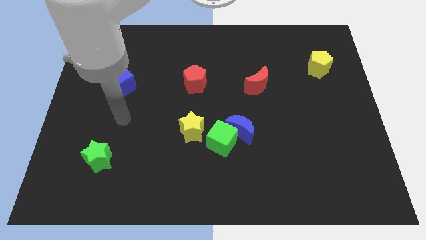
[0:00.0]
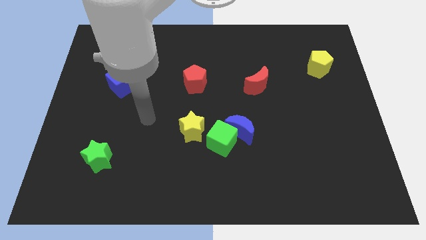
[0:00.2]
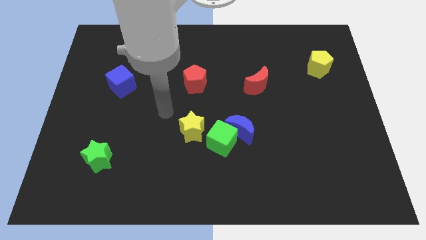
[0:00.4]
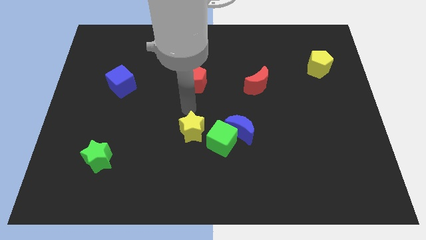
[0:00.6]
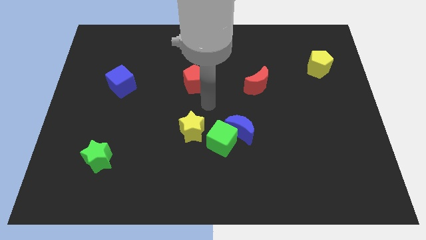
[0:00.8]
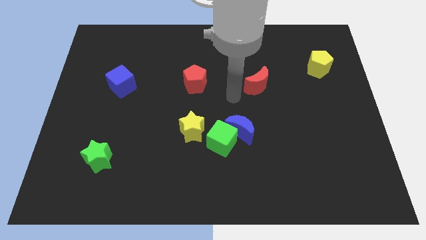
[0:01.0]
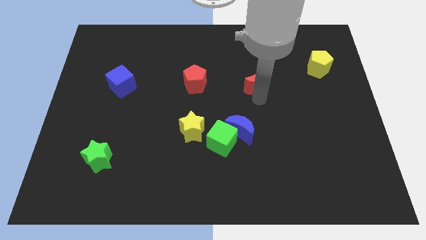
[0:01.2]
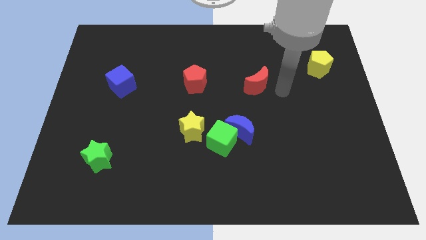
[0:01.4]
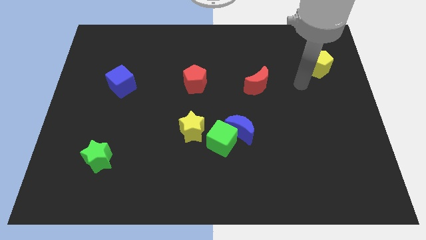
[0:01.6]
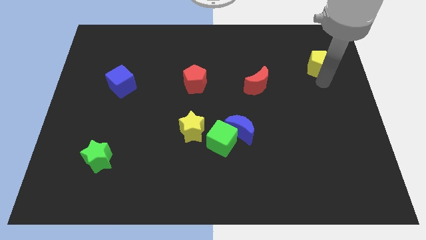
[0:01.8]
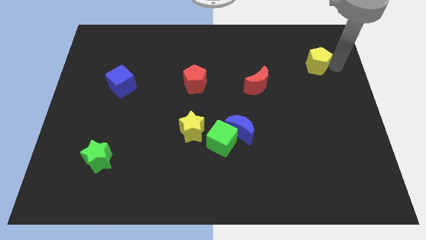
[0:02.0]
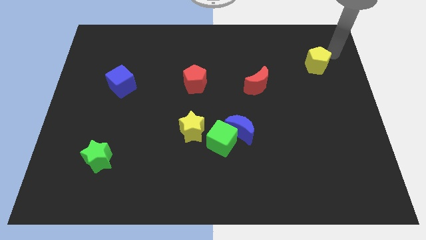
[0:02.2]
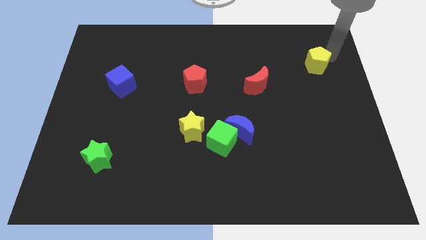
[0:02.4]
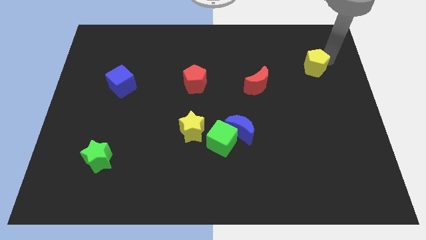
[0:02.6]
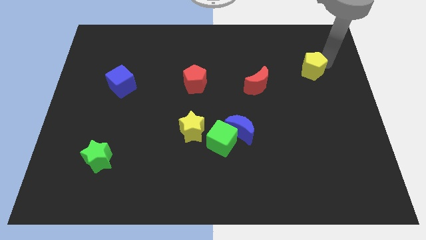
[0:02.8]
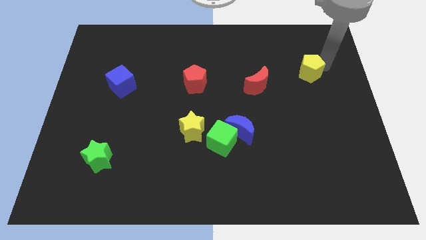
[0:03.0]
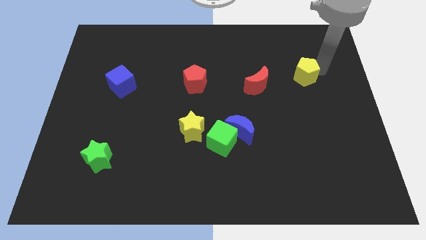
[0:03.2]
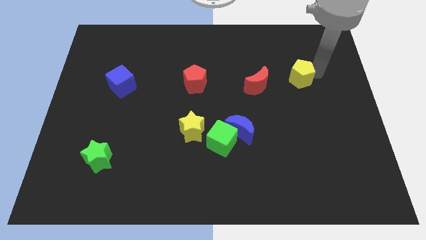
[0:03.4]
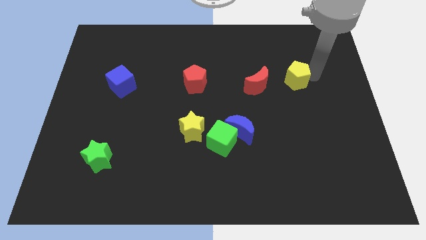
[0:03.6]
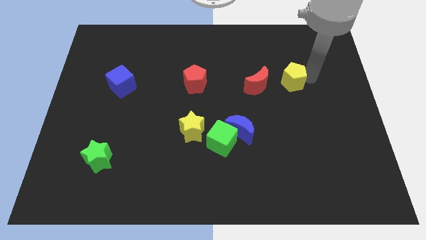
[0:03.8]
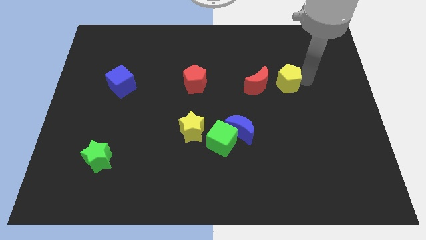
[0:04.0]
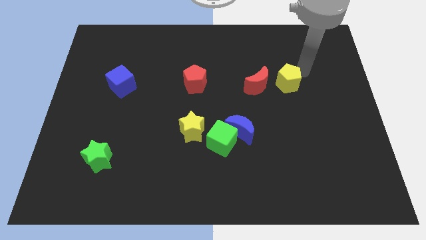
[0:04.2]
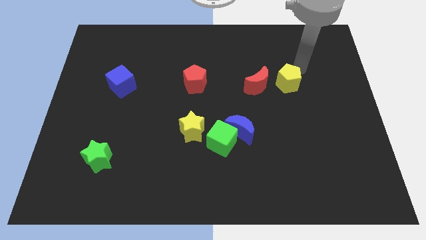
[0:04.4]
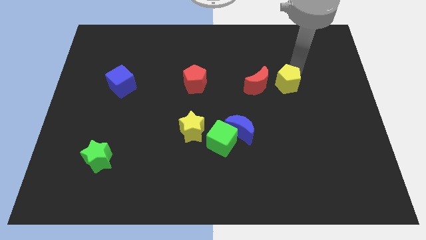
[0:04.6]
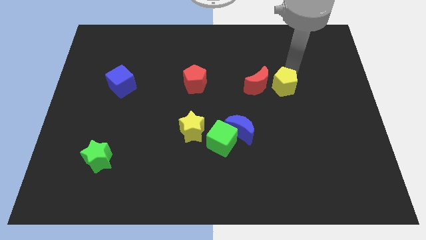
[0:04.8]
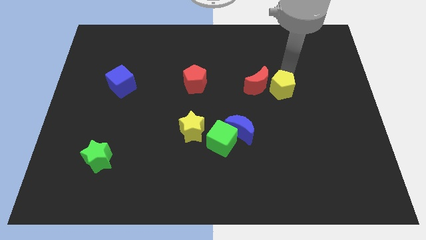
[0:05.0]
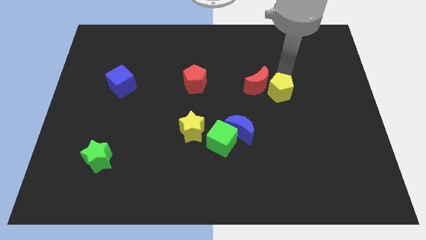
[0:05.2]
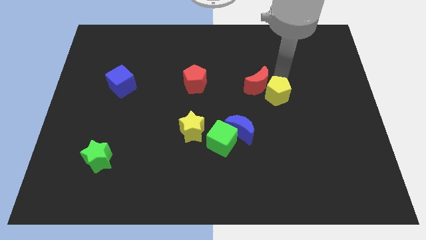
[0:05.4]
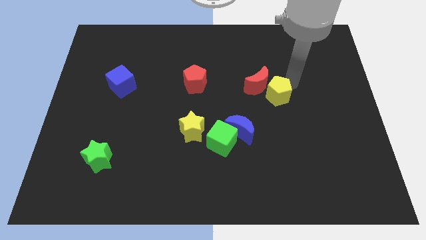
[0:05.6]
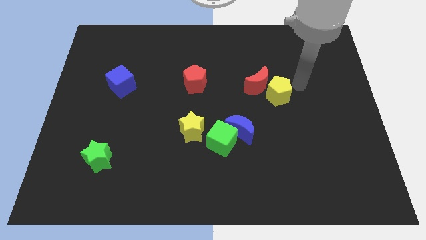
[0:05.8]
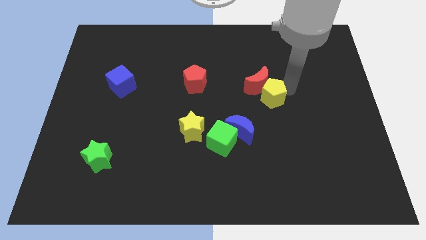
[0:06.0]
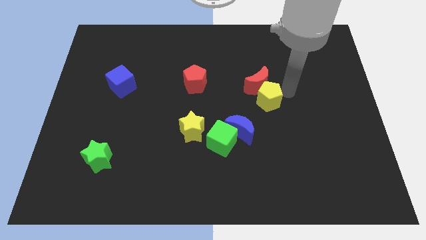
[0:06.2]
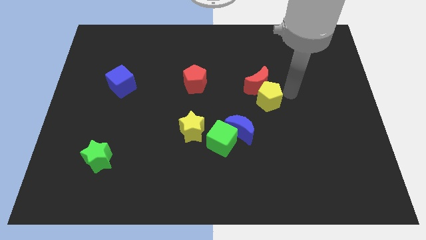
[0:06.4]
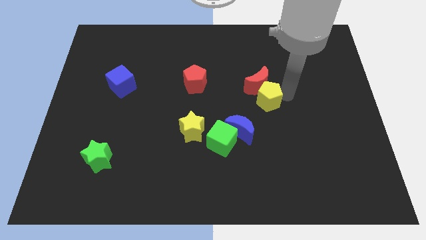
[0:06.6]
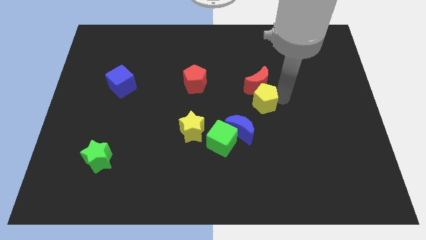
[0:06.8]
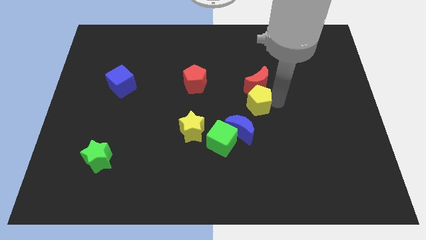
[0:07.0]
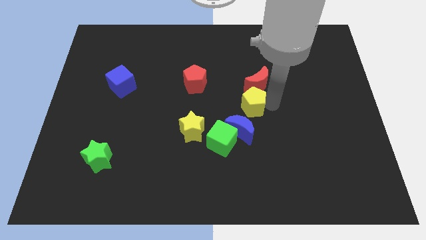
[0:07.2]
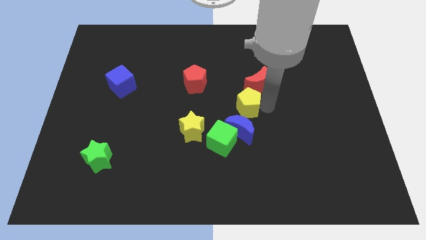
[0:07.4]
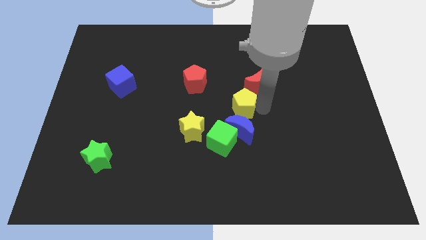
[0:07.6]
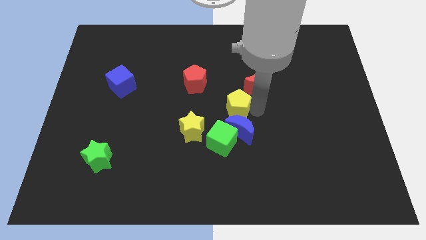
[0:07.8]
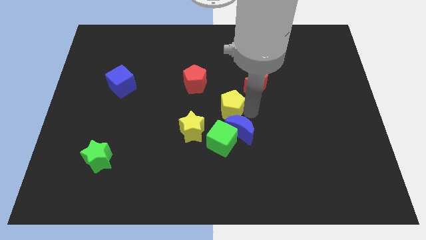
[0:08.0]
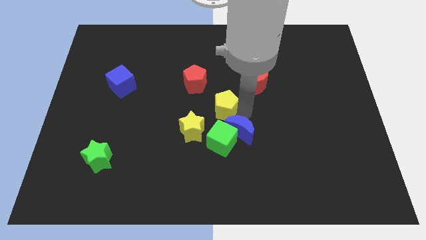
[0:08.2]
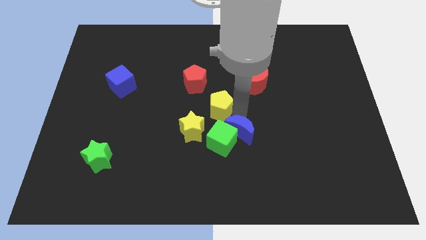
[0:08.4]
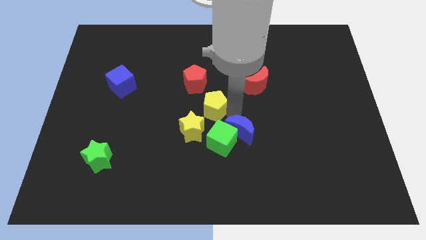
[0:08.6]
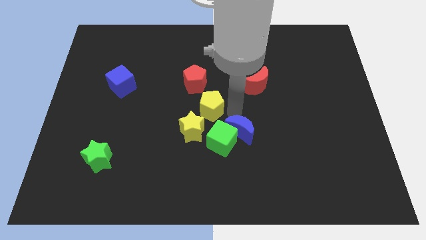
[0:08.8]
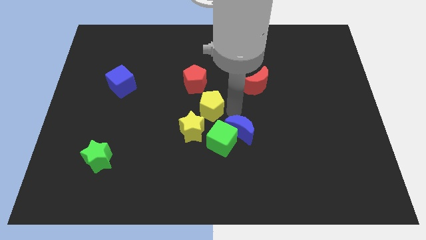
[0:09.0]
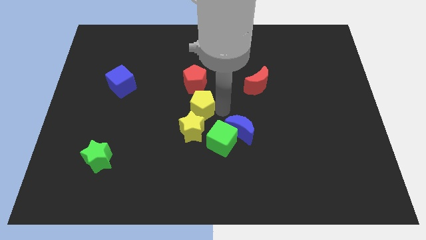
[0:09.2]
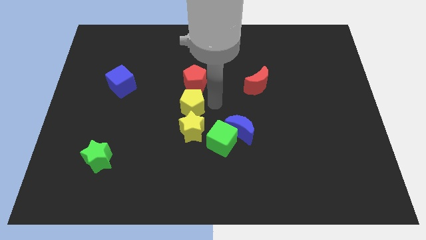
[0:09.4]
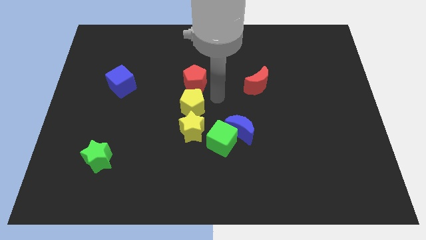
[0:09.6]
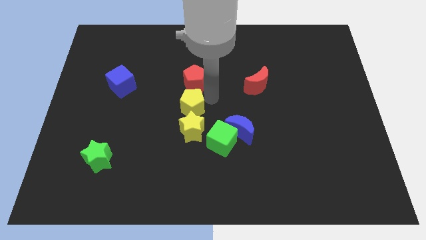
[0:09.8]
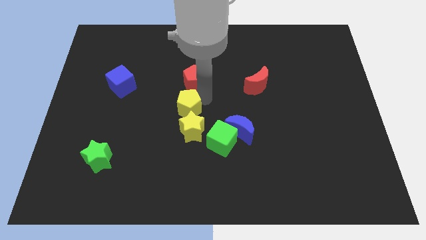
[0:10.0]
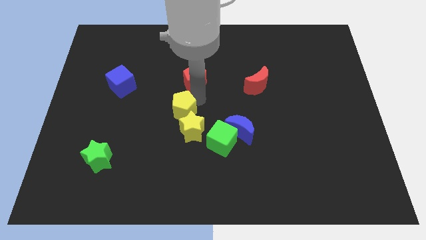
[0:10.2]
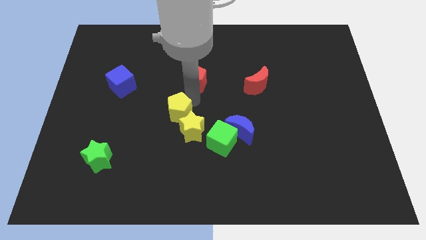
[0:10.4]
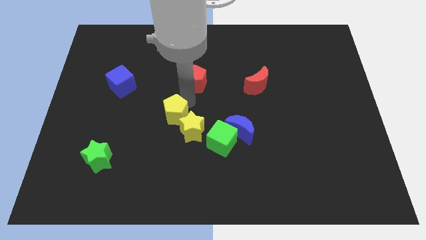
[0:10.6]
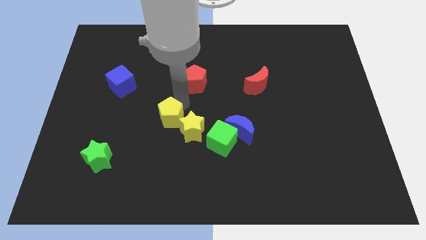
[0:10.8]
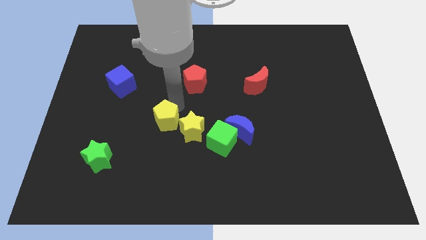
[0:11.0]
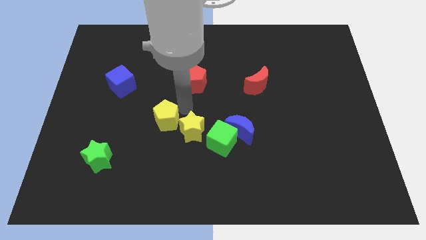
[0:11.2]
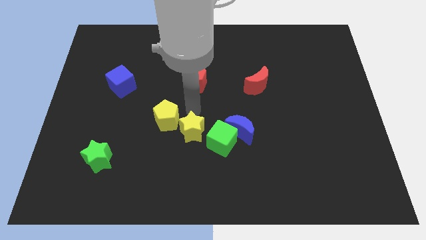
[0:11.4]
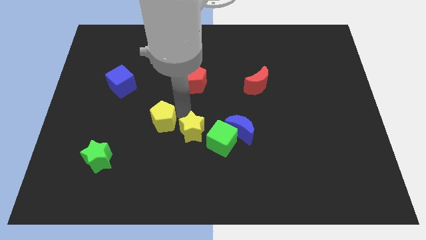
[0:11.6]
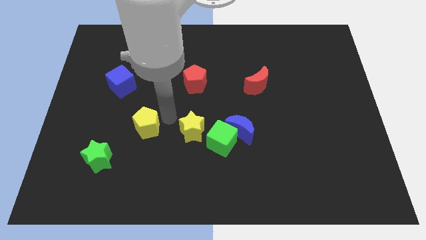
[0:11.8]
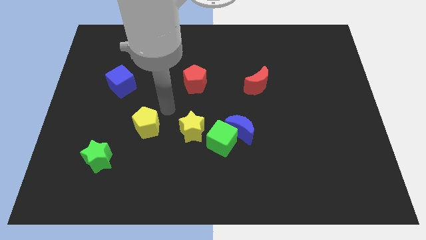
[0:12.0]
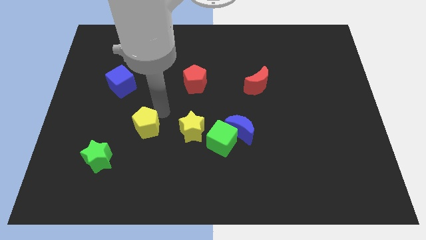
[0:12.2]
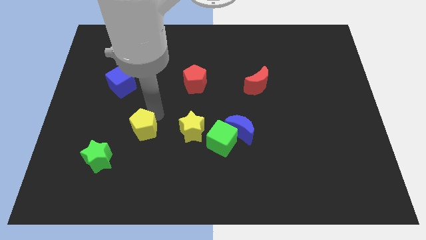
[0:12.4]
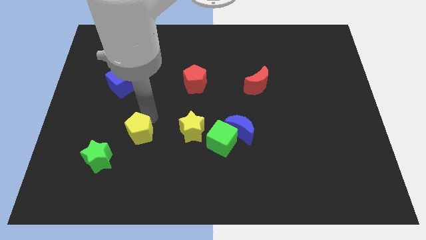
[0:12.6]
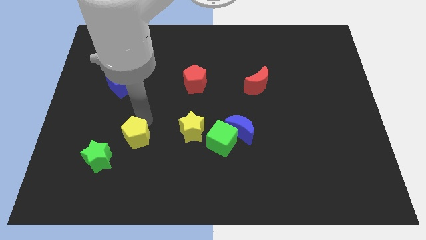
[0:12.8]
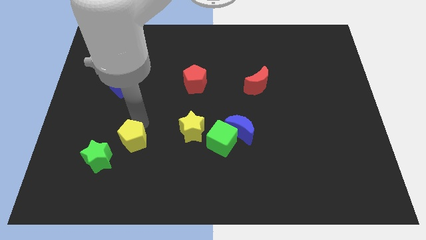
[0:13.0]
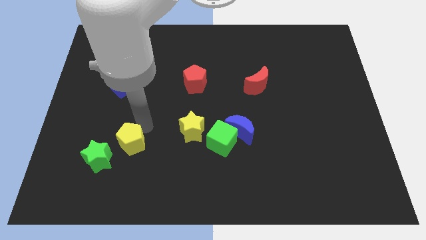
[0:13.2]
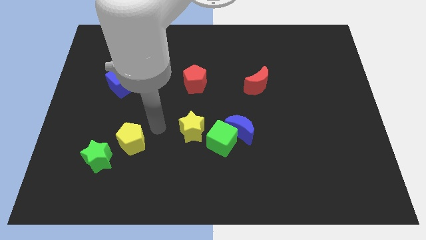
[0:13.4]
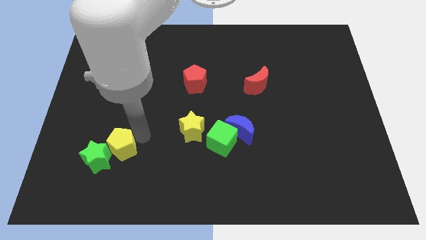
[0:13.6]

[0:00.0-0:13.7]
move the yellow pentagon close to the green star

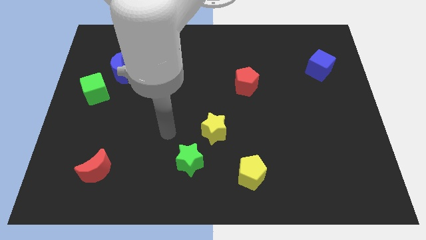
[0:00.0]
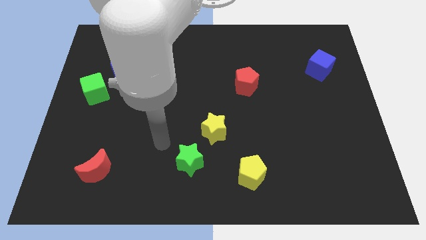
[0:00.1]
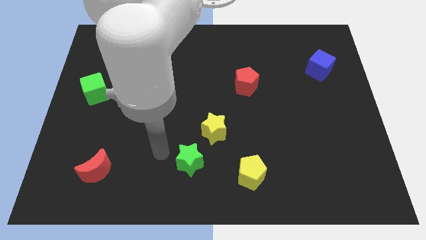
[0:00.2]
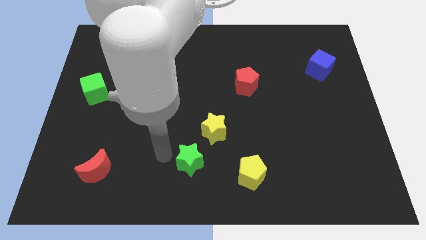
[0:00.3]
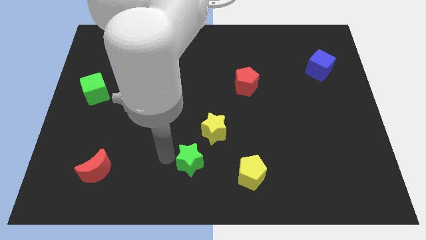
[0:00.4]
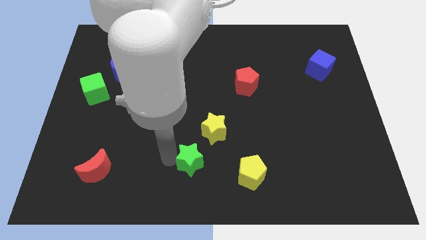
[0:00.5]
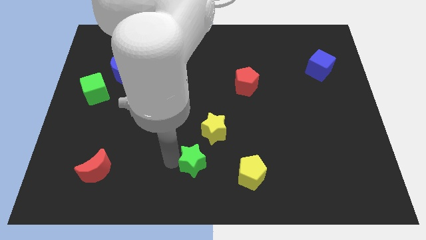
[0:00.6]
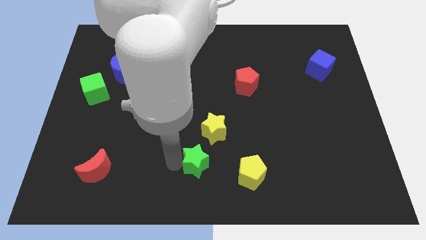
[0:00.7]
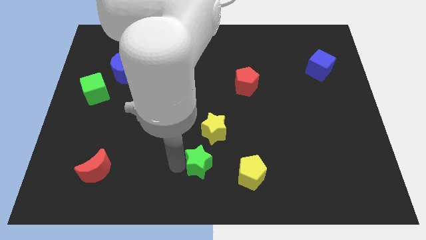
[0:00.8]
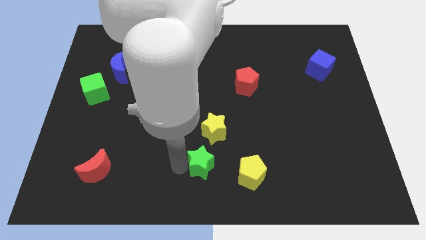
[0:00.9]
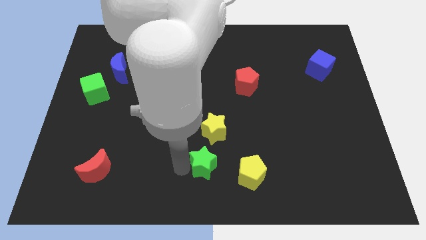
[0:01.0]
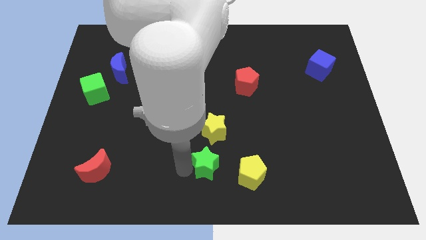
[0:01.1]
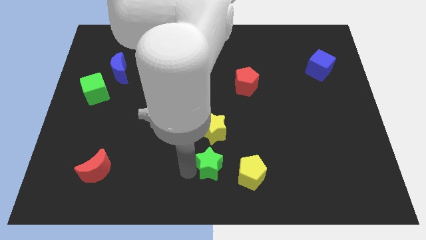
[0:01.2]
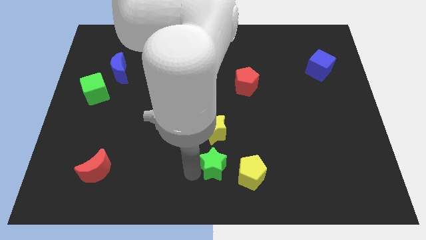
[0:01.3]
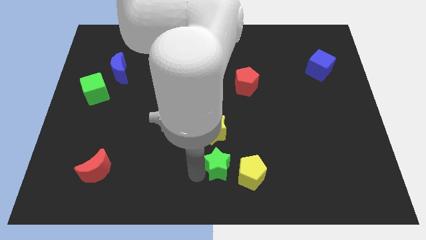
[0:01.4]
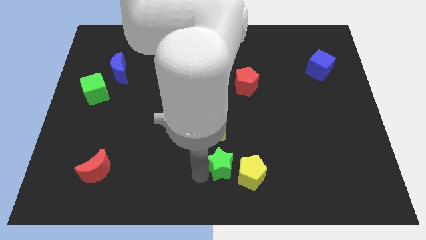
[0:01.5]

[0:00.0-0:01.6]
put the green star close to the yellow pentagon
